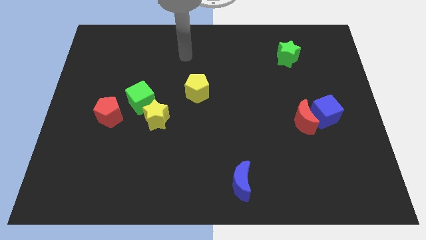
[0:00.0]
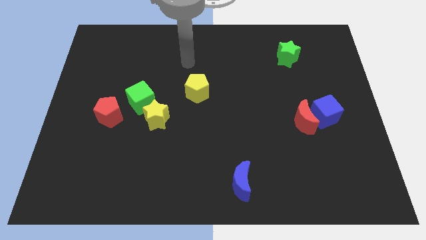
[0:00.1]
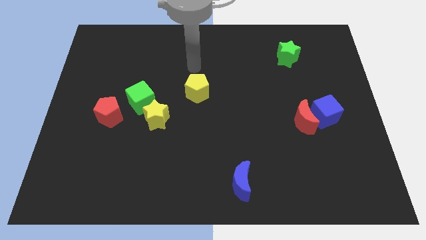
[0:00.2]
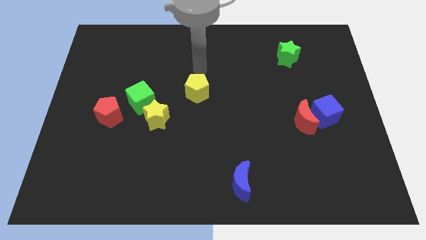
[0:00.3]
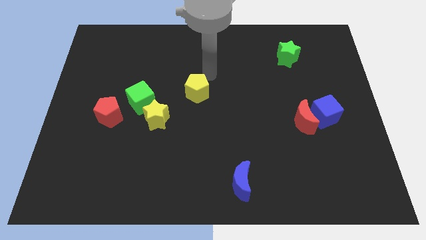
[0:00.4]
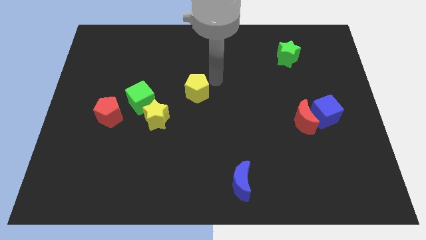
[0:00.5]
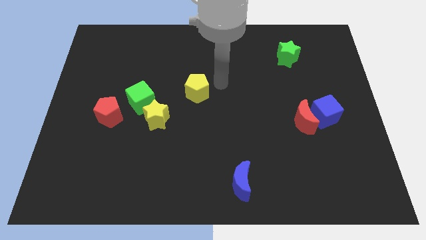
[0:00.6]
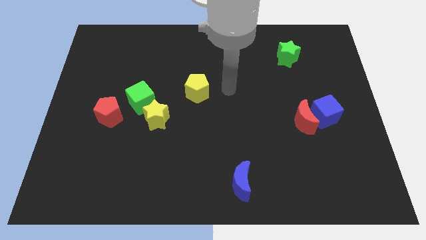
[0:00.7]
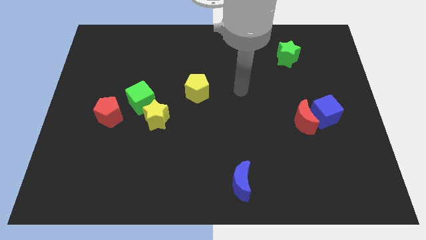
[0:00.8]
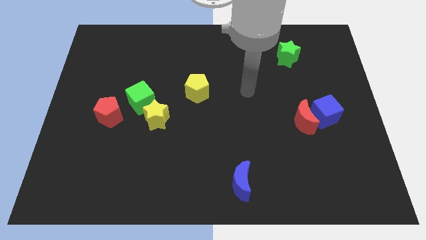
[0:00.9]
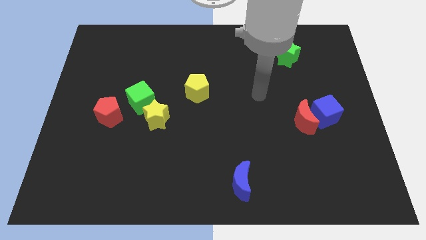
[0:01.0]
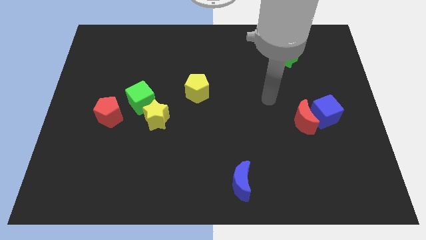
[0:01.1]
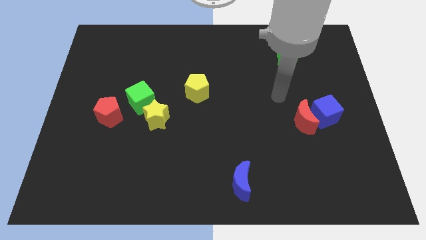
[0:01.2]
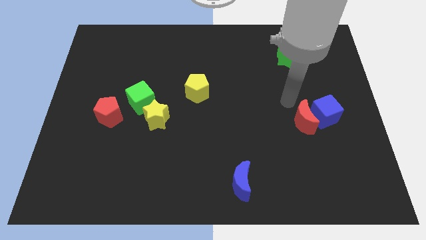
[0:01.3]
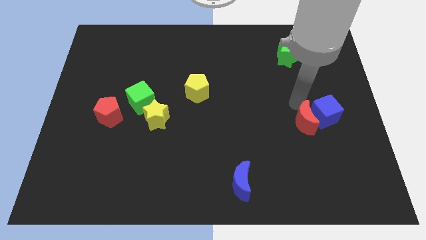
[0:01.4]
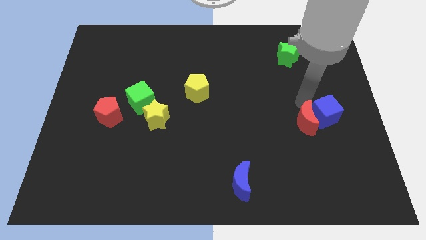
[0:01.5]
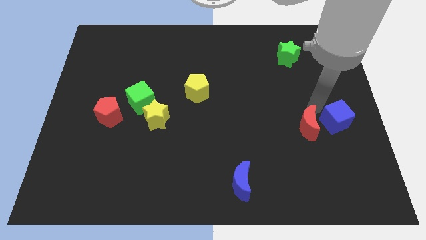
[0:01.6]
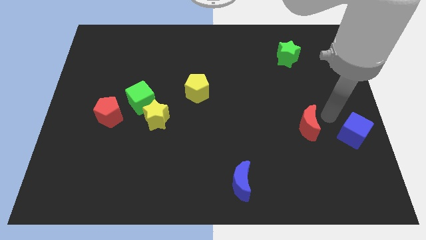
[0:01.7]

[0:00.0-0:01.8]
move the red moon away from the blue cube

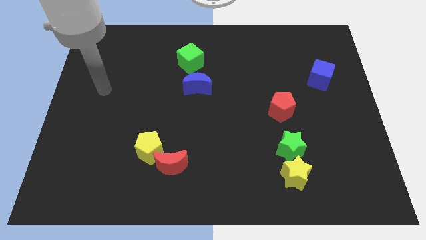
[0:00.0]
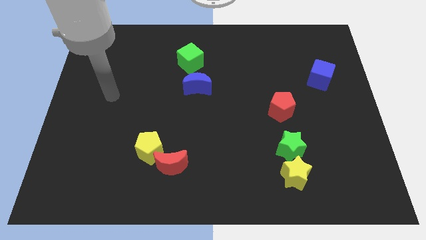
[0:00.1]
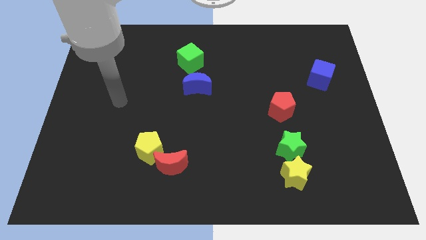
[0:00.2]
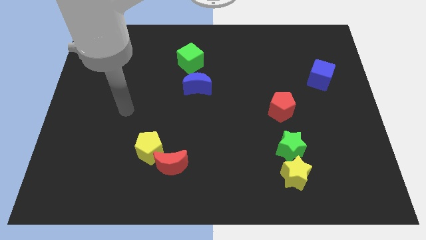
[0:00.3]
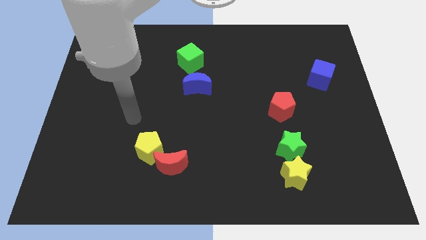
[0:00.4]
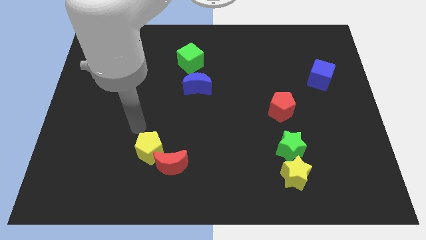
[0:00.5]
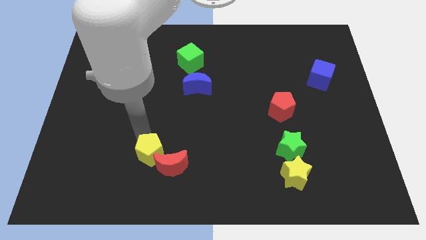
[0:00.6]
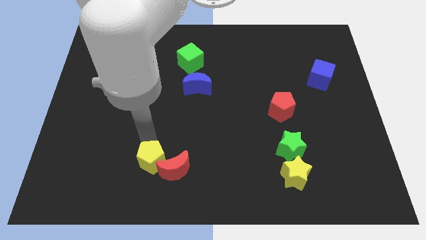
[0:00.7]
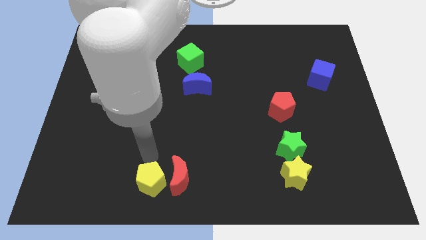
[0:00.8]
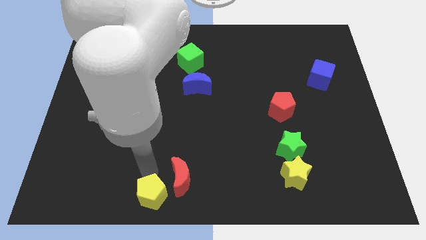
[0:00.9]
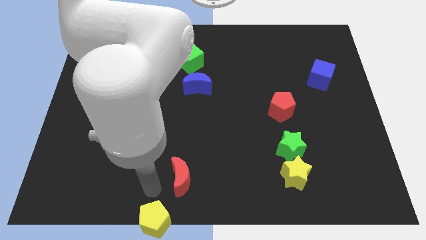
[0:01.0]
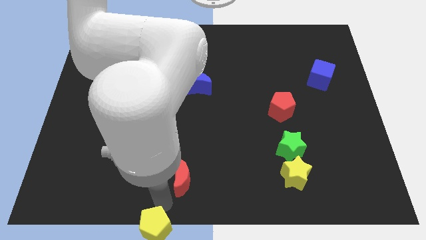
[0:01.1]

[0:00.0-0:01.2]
pull the red moon apart from the yellow pentagon

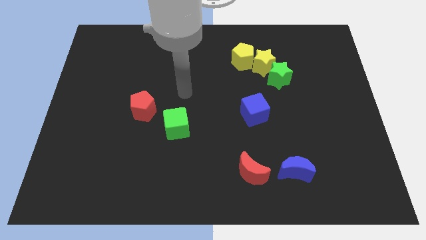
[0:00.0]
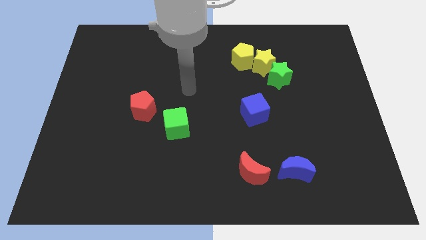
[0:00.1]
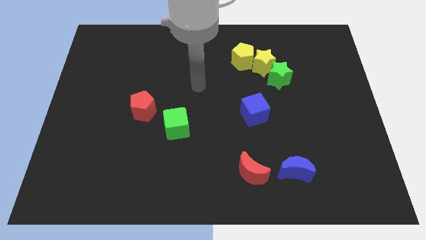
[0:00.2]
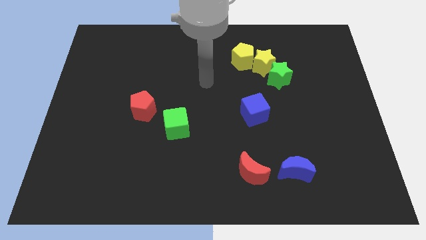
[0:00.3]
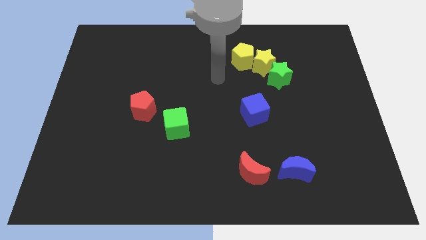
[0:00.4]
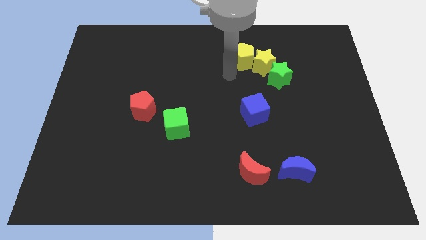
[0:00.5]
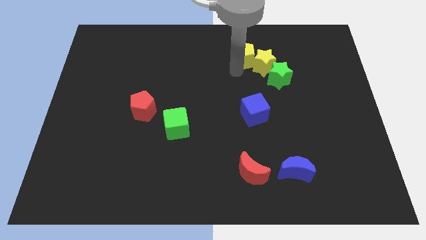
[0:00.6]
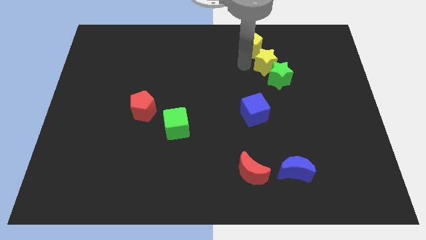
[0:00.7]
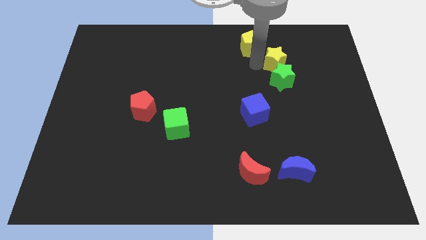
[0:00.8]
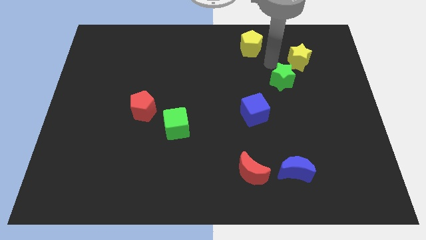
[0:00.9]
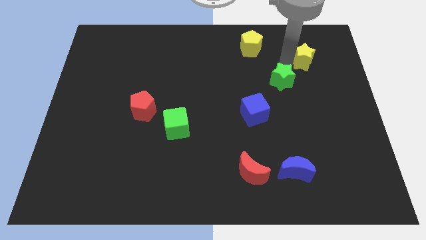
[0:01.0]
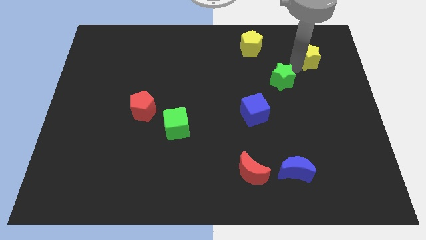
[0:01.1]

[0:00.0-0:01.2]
move the green star away from the yellow star

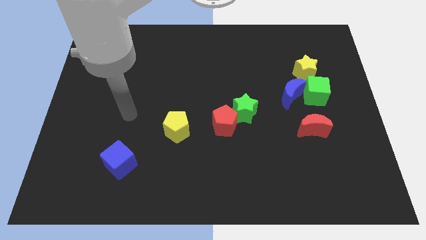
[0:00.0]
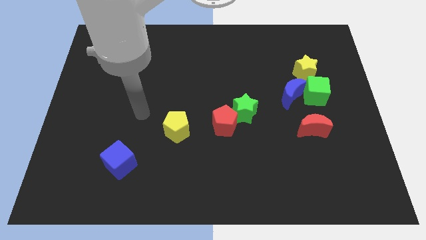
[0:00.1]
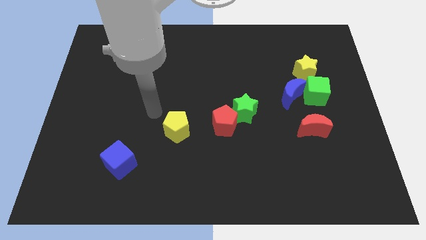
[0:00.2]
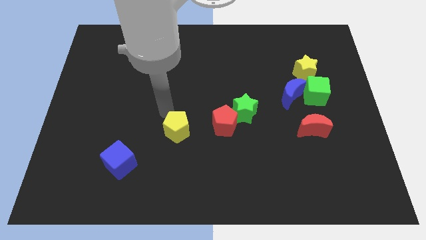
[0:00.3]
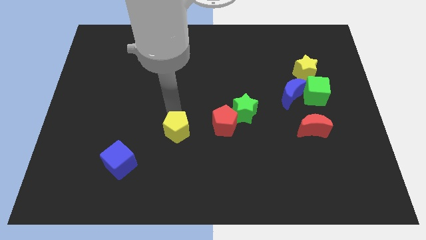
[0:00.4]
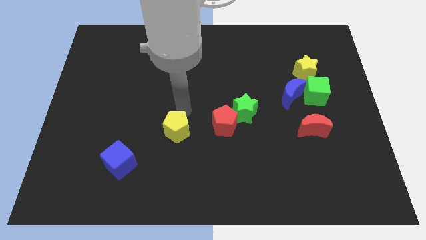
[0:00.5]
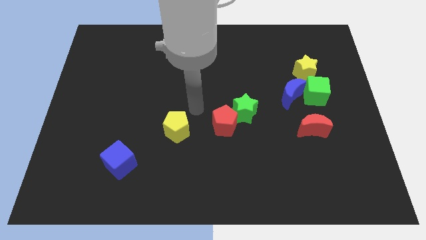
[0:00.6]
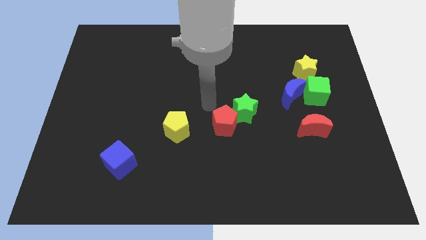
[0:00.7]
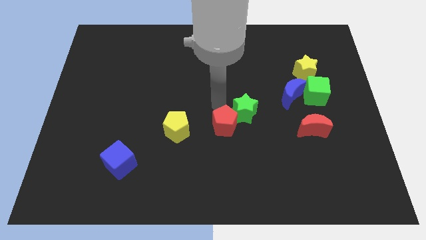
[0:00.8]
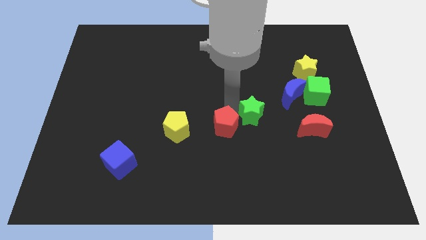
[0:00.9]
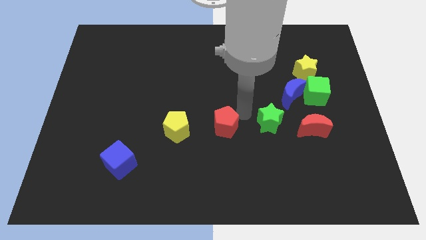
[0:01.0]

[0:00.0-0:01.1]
move the red pentagon away from the green star

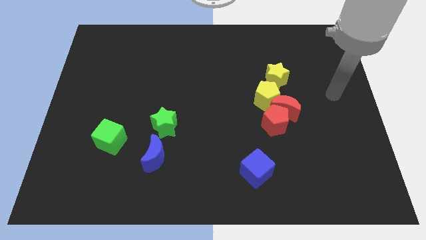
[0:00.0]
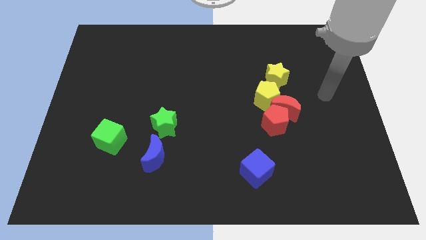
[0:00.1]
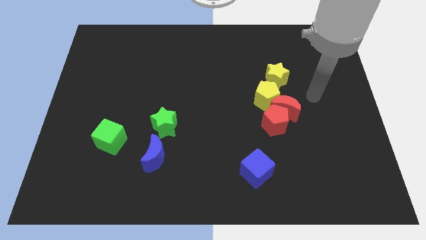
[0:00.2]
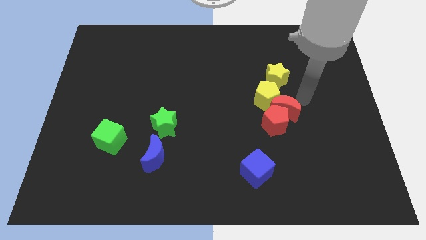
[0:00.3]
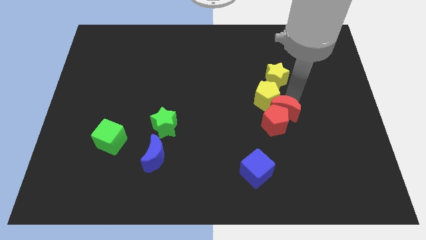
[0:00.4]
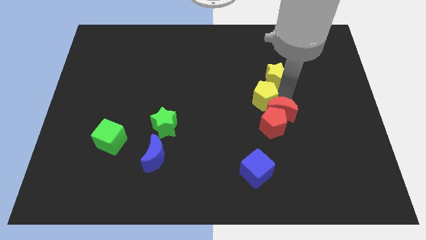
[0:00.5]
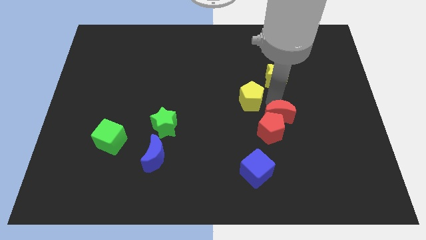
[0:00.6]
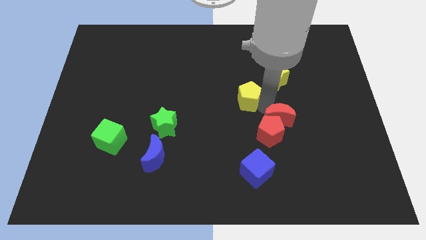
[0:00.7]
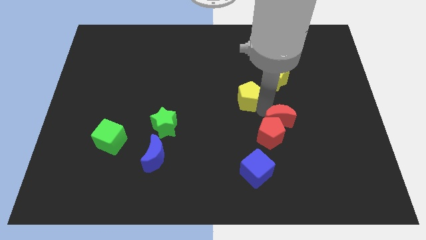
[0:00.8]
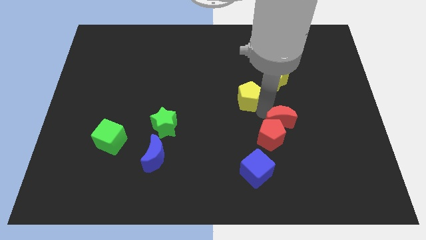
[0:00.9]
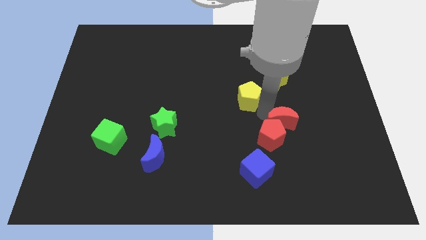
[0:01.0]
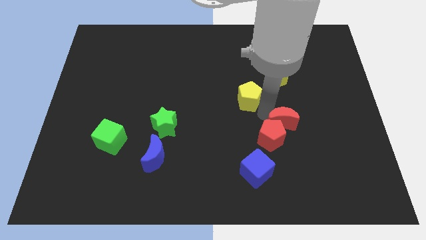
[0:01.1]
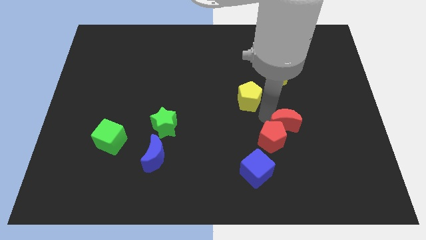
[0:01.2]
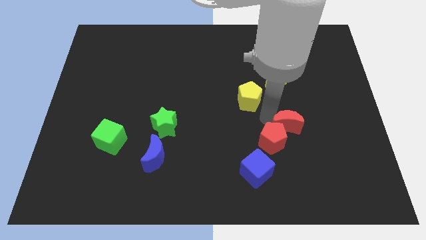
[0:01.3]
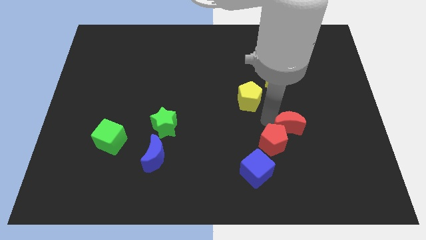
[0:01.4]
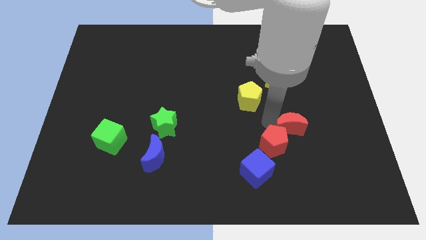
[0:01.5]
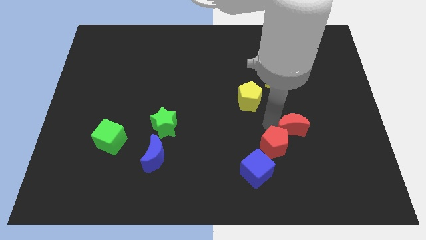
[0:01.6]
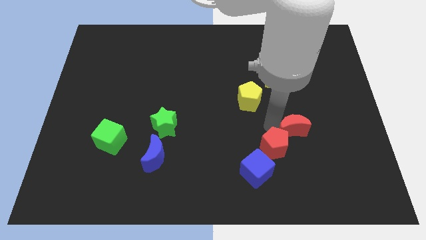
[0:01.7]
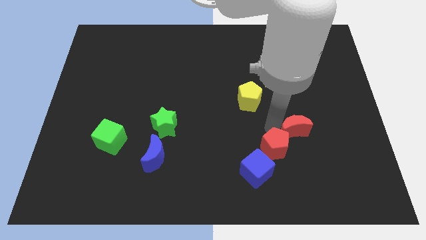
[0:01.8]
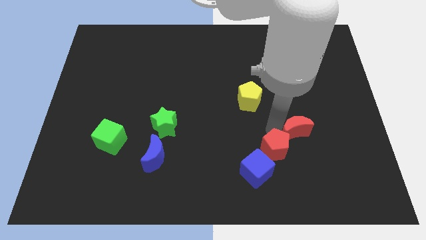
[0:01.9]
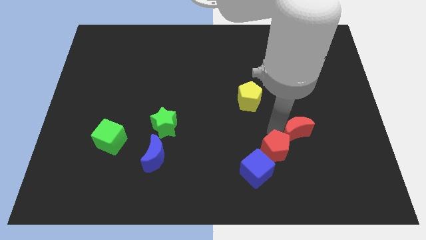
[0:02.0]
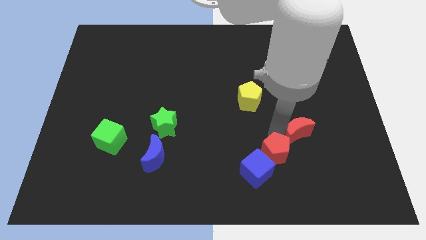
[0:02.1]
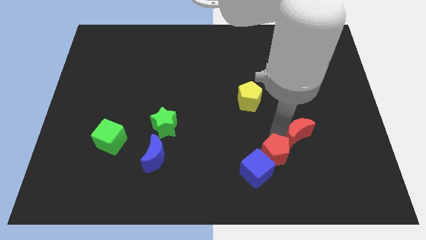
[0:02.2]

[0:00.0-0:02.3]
separate the red pentagon from the red moon and yellow pentagon

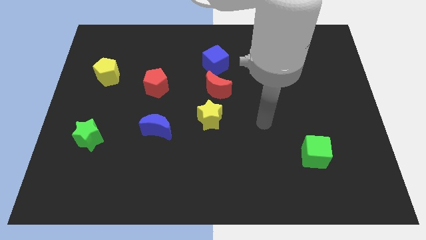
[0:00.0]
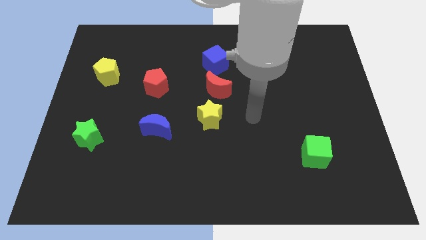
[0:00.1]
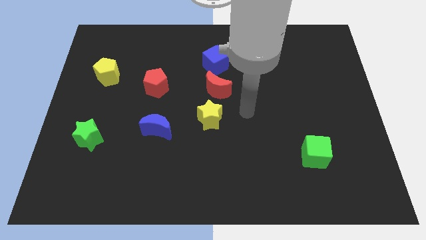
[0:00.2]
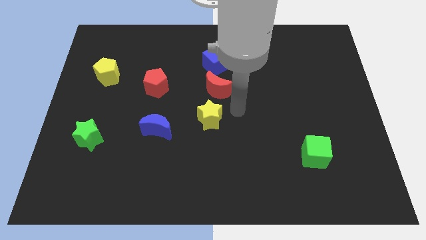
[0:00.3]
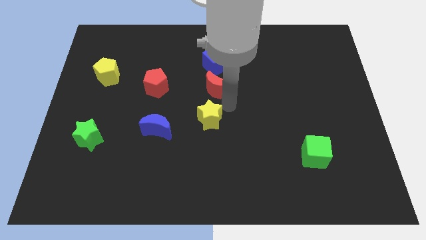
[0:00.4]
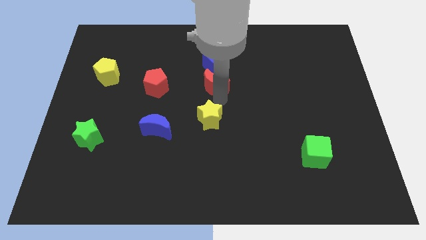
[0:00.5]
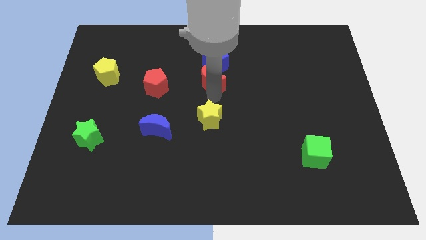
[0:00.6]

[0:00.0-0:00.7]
separate the yellow star from the red moon

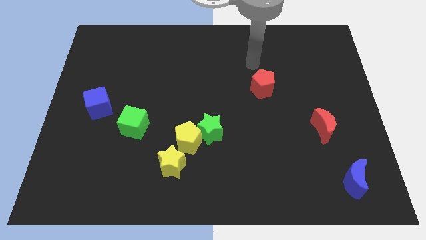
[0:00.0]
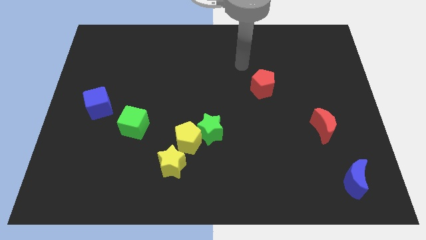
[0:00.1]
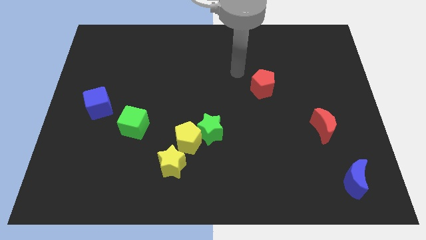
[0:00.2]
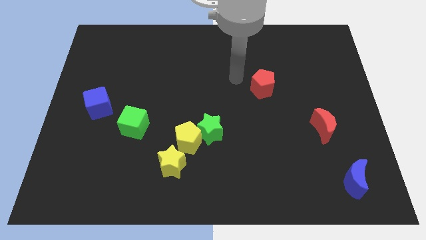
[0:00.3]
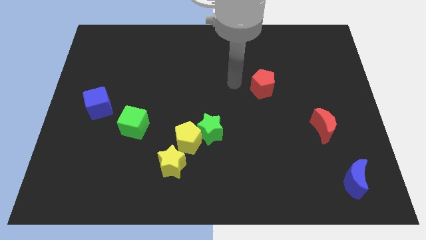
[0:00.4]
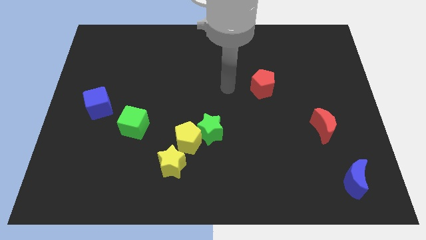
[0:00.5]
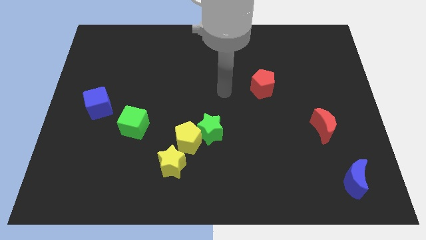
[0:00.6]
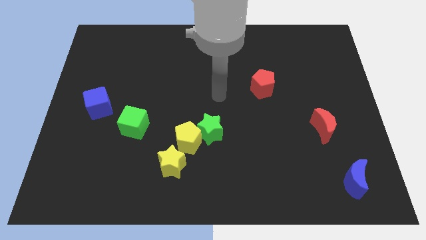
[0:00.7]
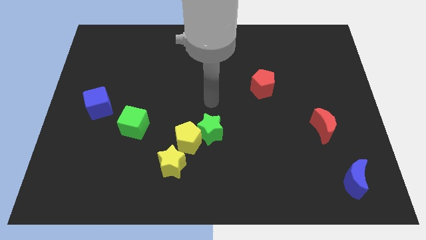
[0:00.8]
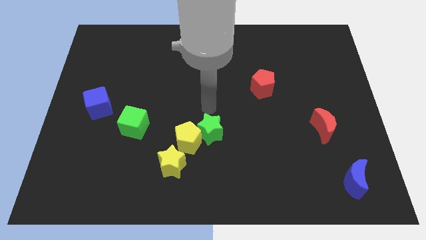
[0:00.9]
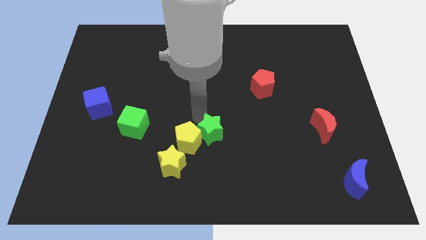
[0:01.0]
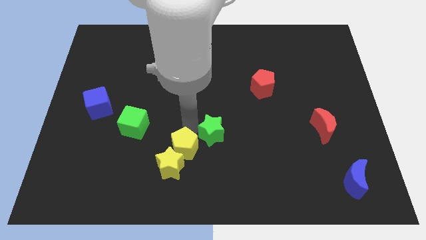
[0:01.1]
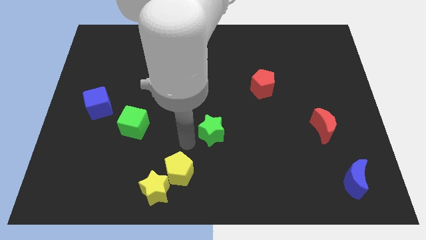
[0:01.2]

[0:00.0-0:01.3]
pull the green star apart from the yellow pentagon
